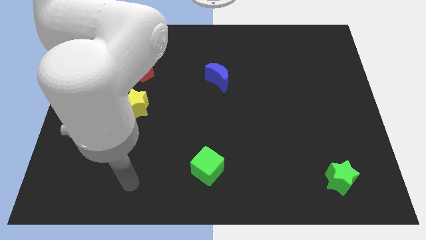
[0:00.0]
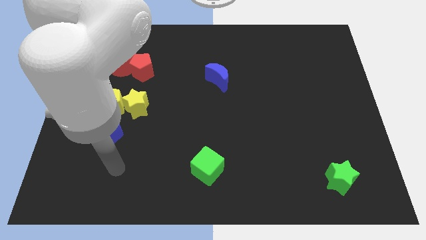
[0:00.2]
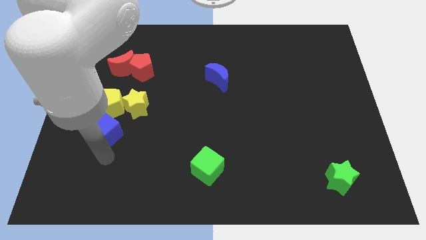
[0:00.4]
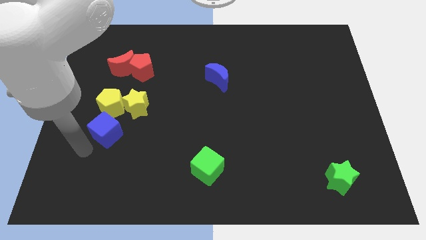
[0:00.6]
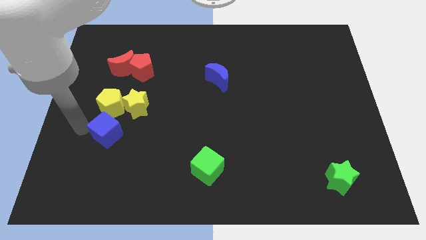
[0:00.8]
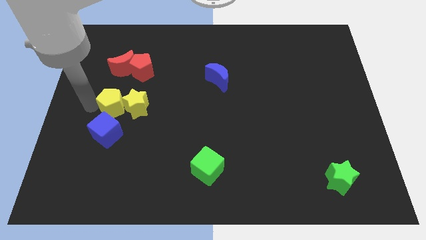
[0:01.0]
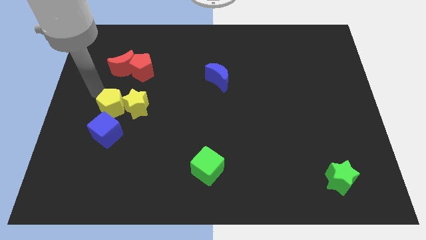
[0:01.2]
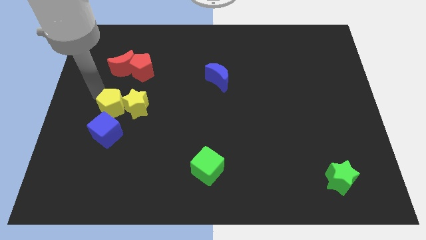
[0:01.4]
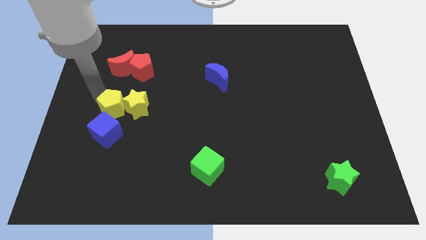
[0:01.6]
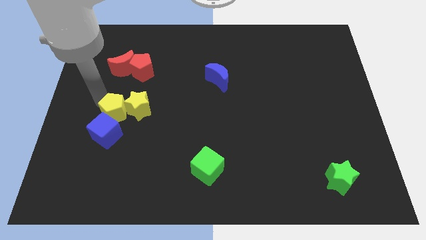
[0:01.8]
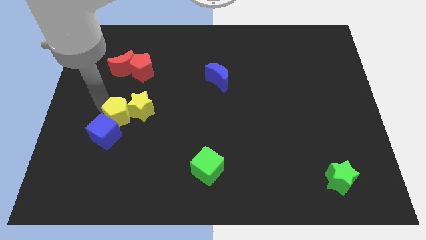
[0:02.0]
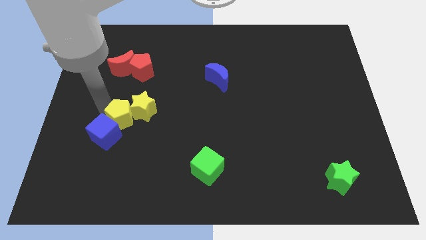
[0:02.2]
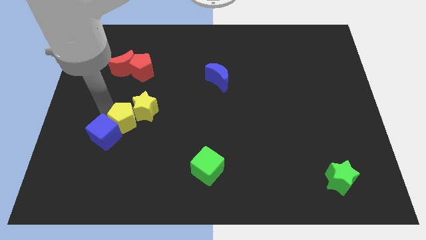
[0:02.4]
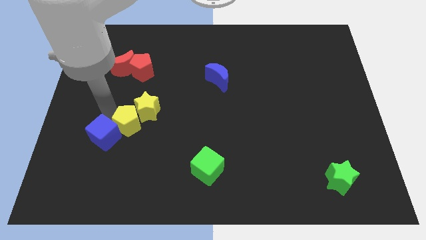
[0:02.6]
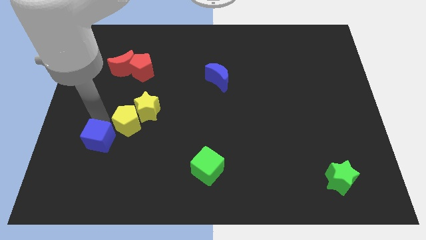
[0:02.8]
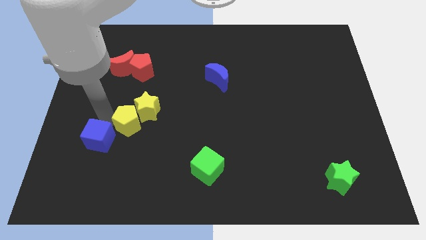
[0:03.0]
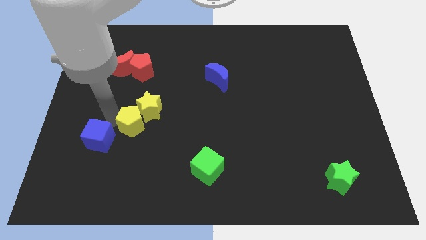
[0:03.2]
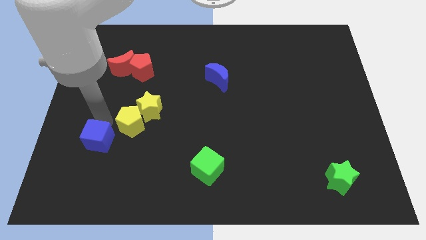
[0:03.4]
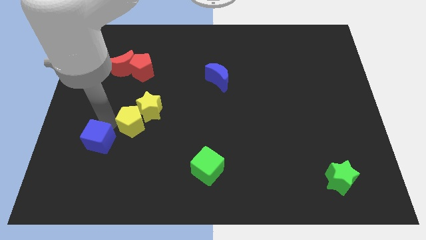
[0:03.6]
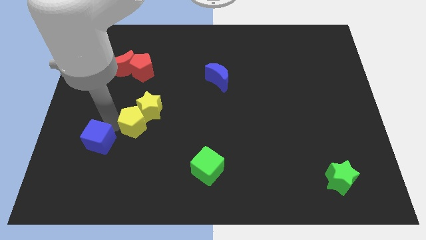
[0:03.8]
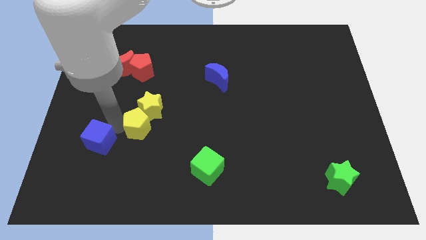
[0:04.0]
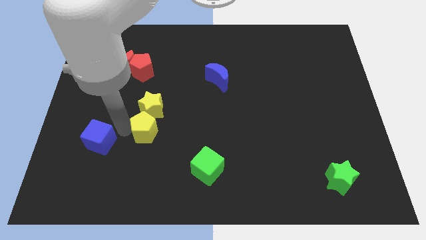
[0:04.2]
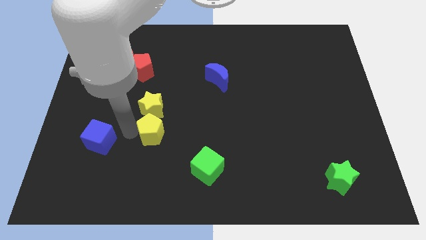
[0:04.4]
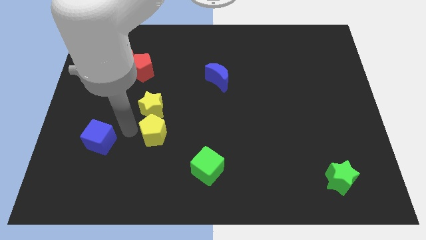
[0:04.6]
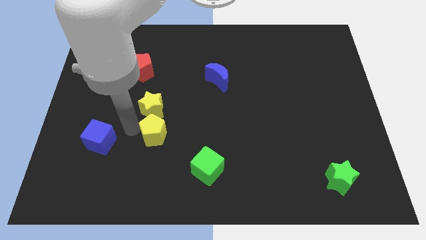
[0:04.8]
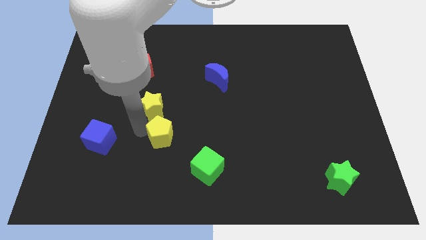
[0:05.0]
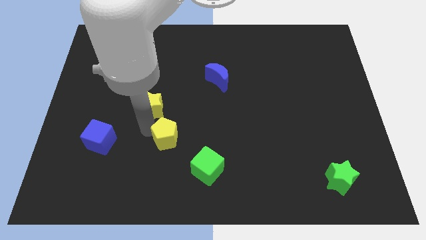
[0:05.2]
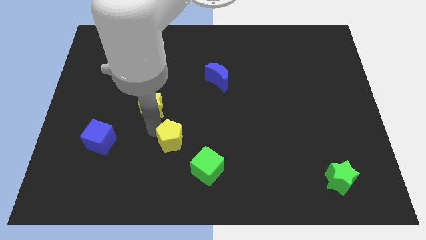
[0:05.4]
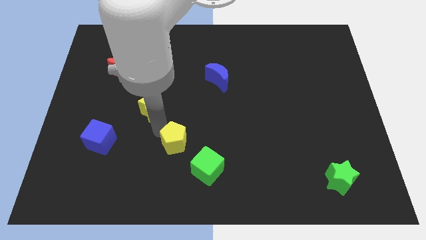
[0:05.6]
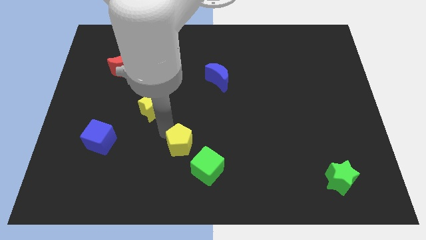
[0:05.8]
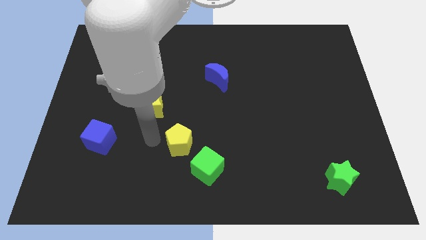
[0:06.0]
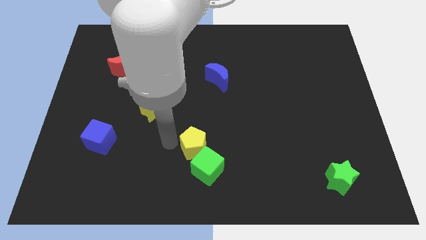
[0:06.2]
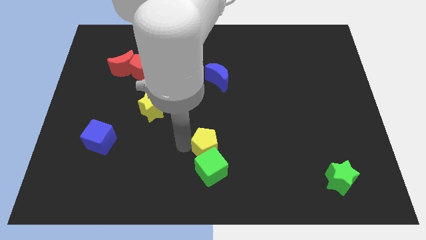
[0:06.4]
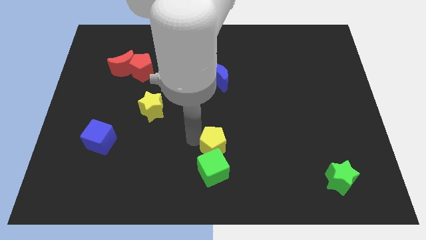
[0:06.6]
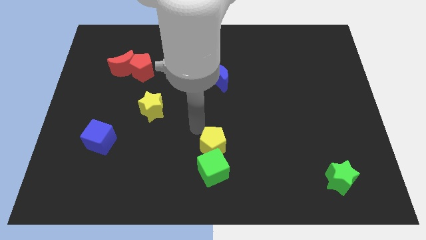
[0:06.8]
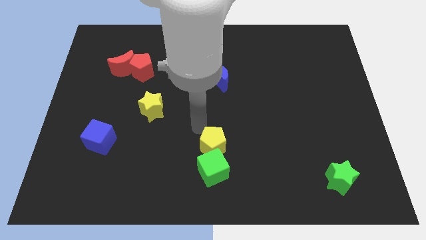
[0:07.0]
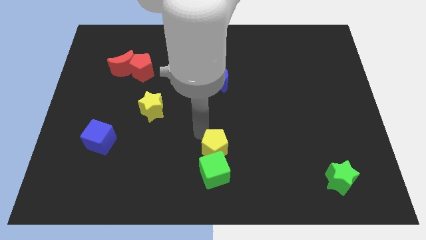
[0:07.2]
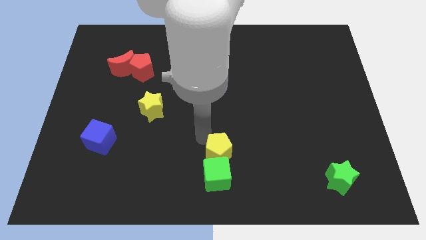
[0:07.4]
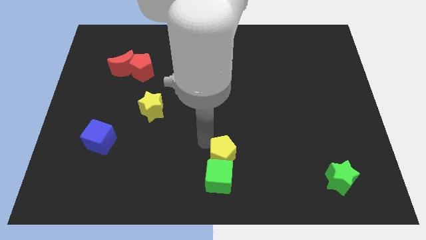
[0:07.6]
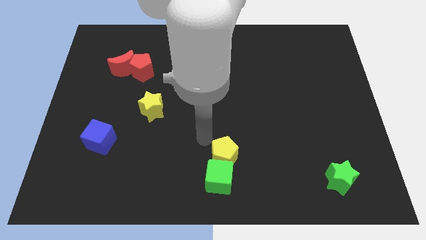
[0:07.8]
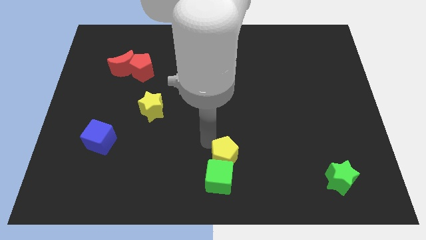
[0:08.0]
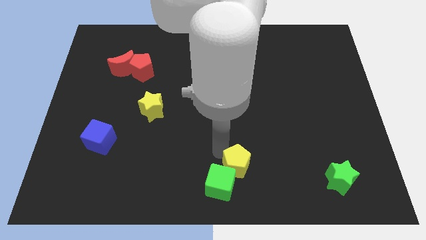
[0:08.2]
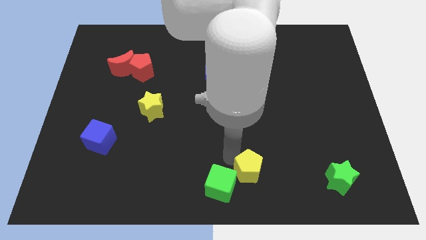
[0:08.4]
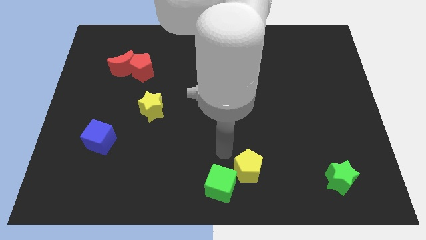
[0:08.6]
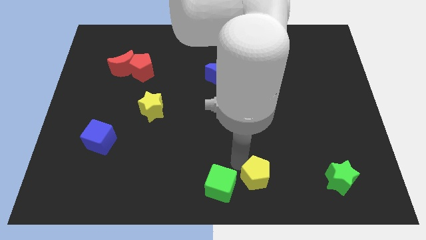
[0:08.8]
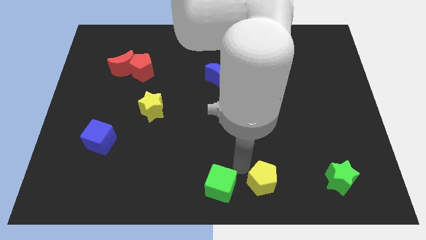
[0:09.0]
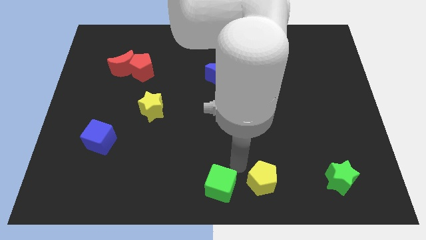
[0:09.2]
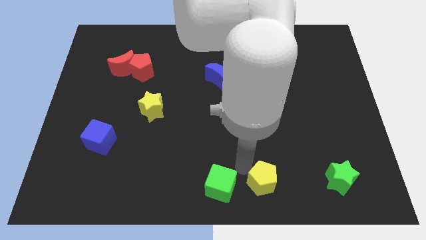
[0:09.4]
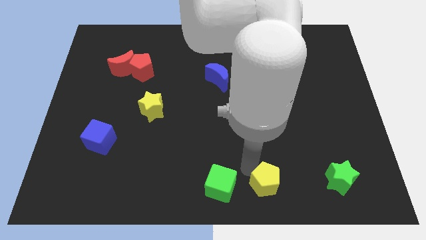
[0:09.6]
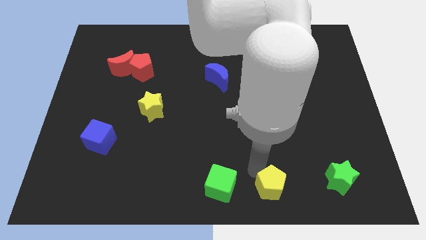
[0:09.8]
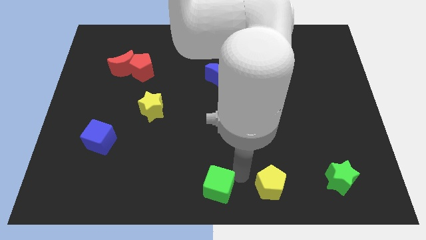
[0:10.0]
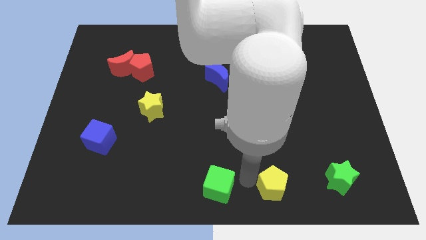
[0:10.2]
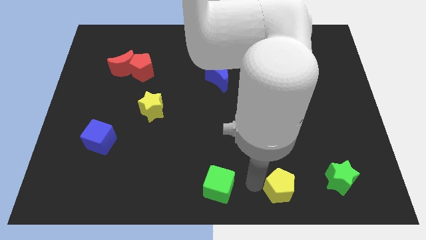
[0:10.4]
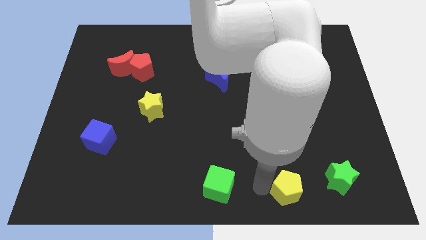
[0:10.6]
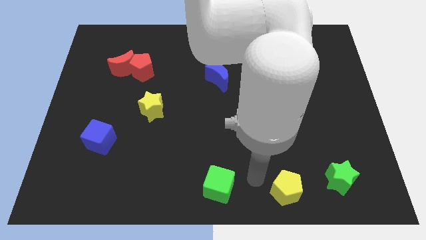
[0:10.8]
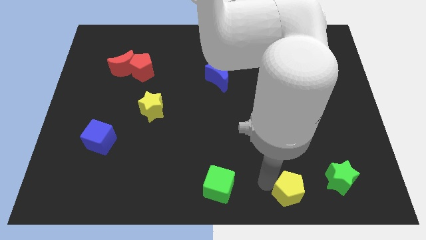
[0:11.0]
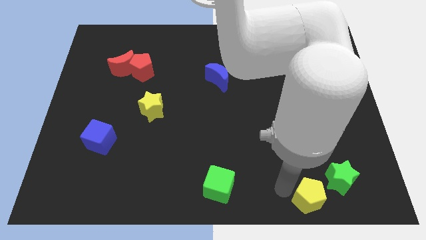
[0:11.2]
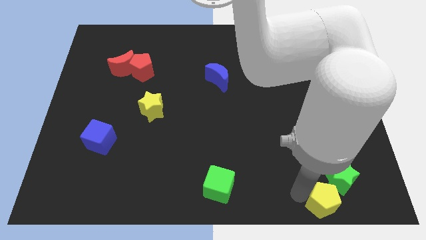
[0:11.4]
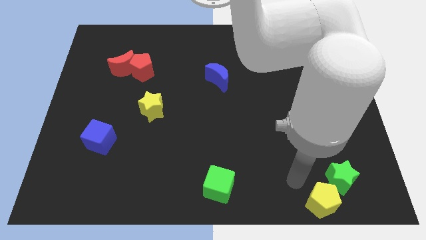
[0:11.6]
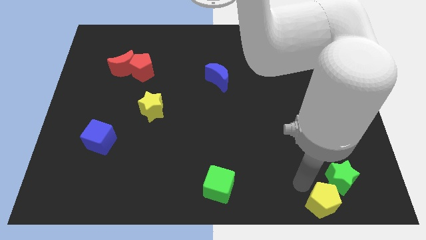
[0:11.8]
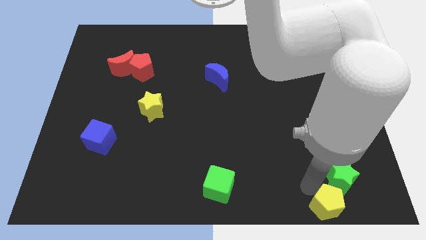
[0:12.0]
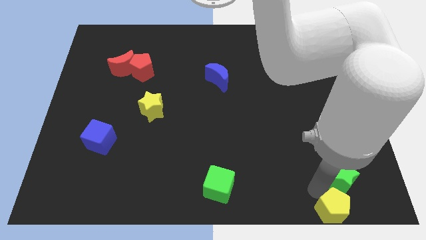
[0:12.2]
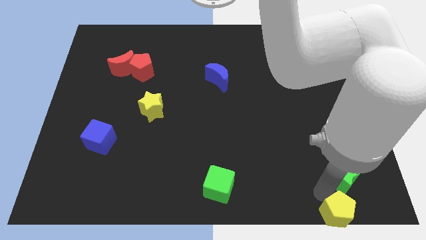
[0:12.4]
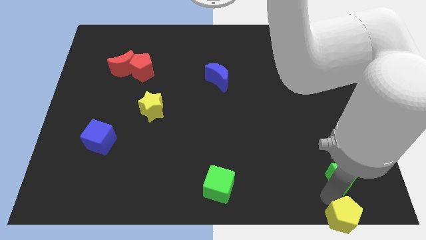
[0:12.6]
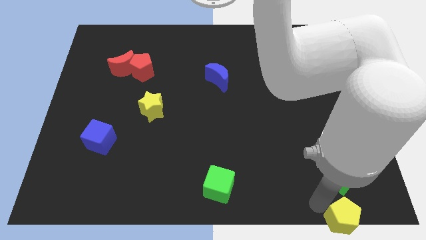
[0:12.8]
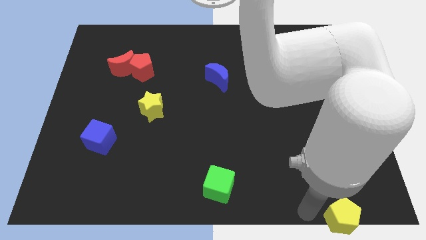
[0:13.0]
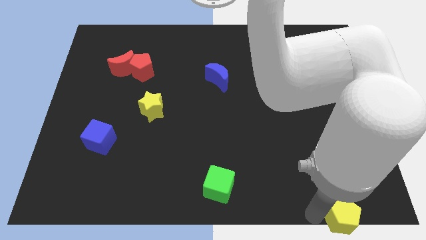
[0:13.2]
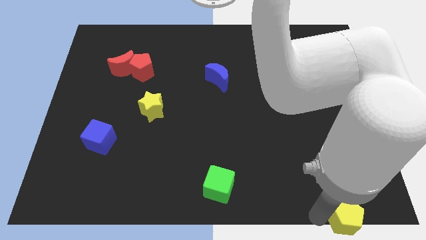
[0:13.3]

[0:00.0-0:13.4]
put the yellow pentagon to the bottom right corner

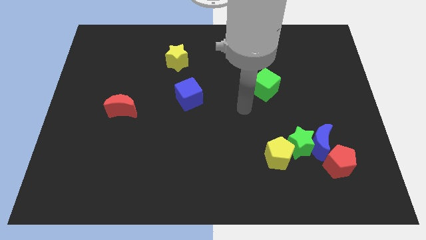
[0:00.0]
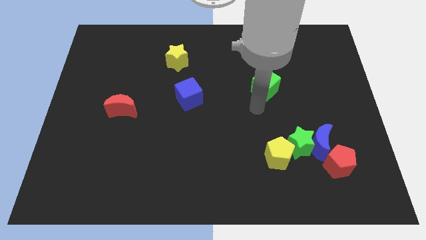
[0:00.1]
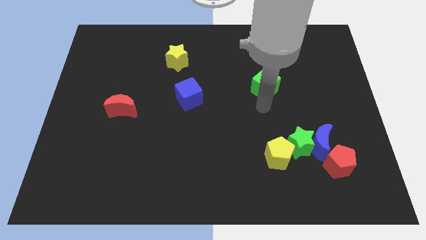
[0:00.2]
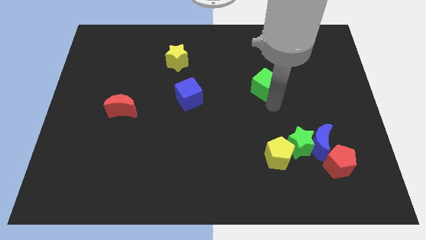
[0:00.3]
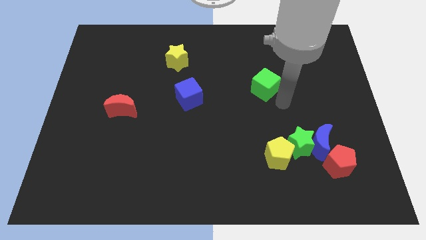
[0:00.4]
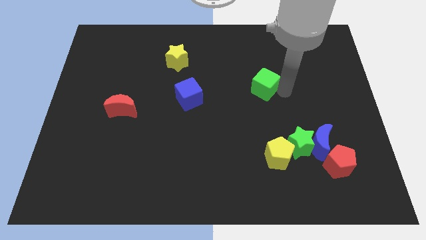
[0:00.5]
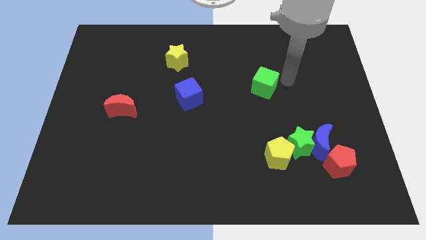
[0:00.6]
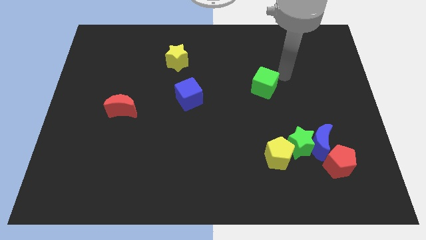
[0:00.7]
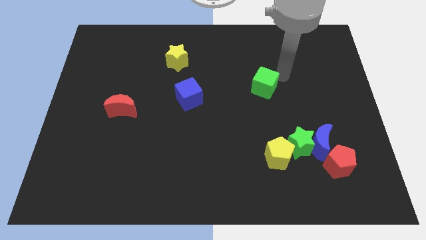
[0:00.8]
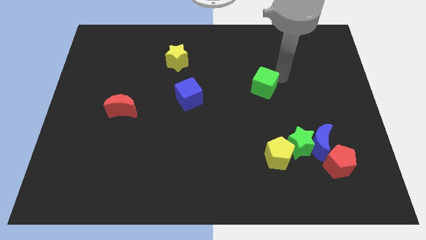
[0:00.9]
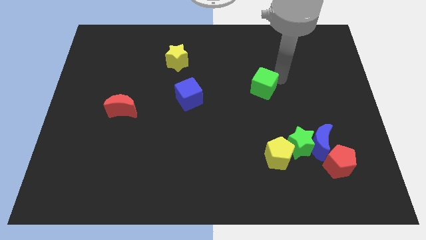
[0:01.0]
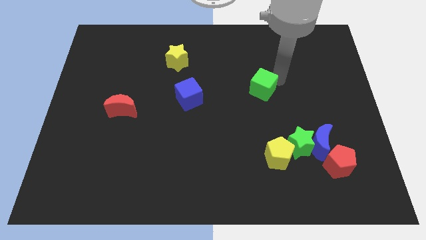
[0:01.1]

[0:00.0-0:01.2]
slide the green cube to the middle
